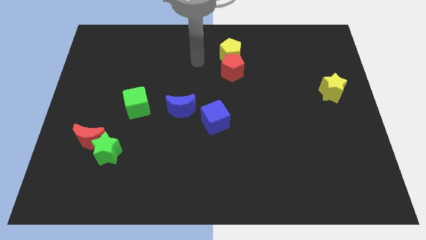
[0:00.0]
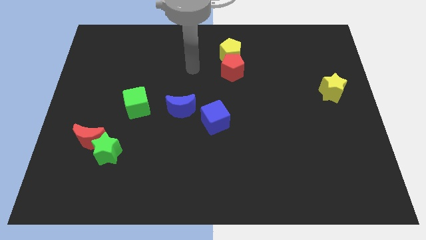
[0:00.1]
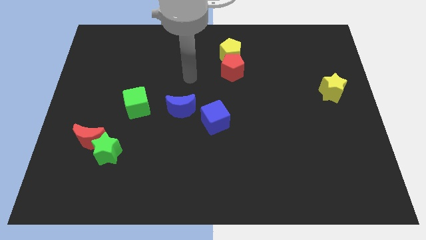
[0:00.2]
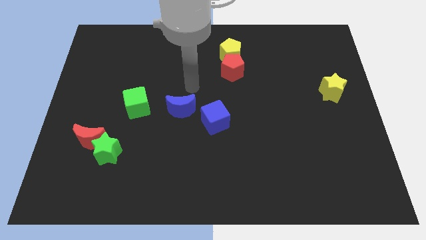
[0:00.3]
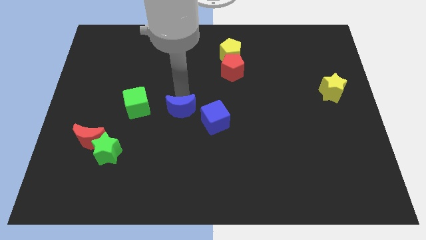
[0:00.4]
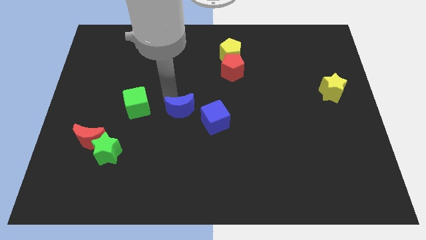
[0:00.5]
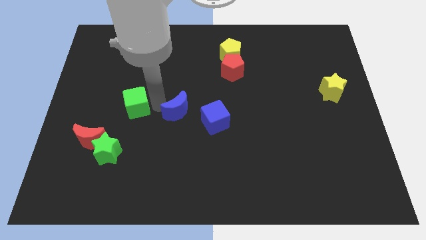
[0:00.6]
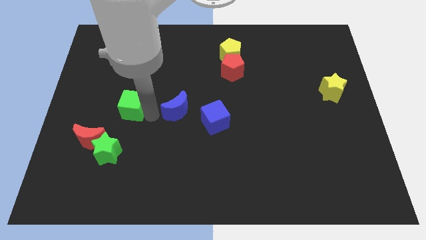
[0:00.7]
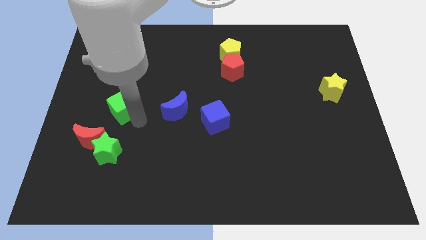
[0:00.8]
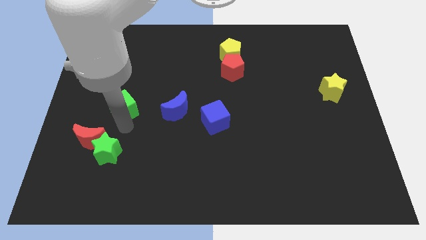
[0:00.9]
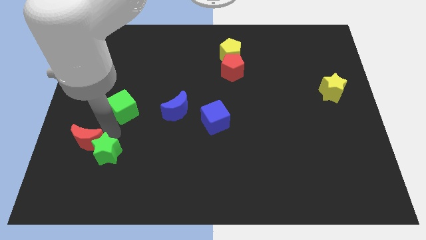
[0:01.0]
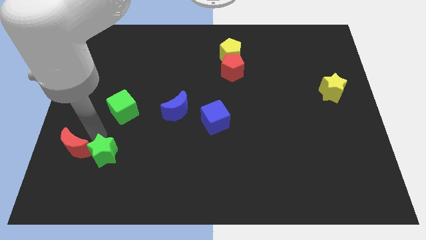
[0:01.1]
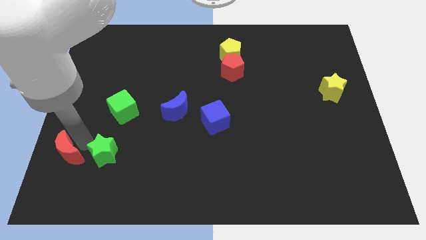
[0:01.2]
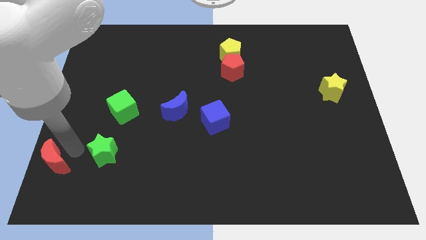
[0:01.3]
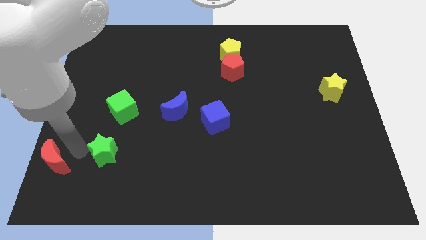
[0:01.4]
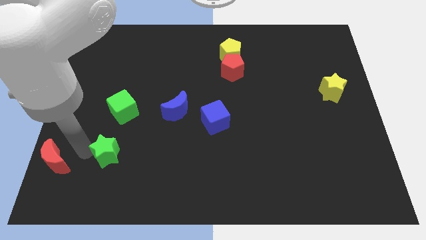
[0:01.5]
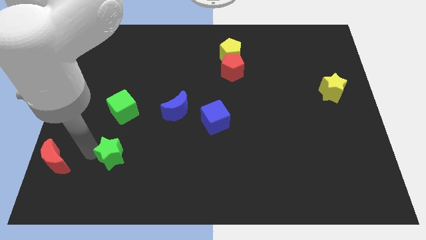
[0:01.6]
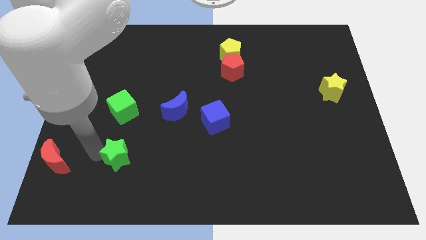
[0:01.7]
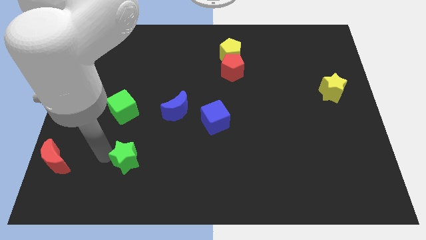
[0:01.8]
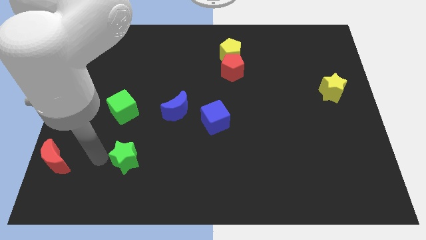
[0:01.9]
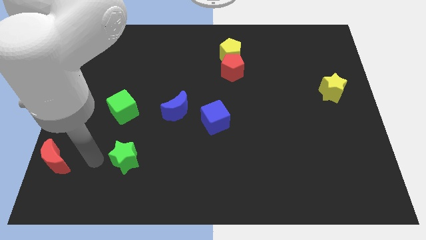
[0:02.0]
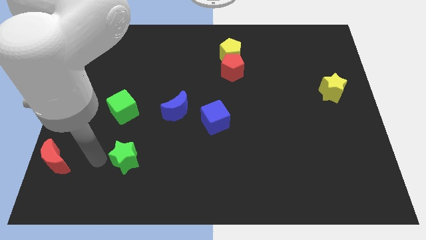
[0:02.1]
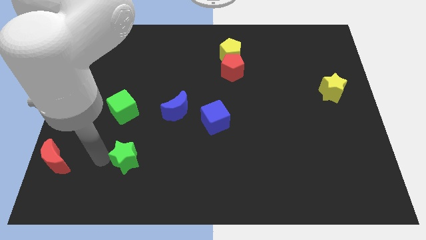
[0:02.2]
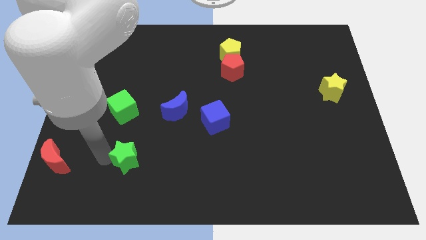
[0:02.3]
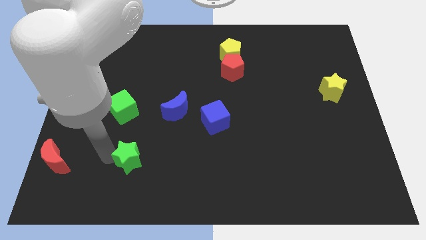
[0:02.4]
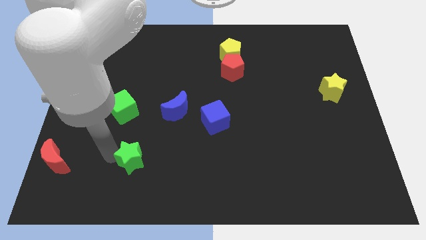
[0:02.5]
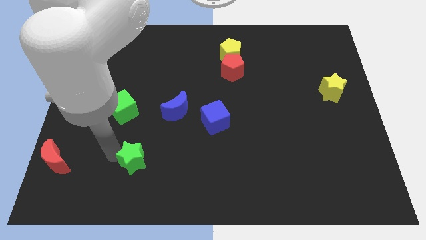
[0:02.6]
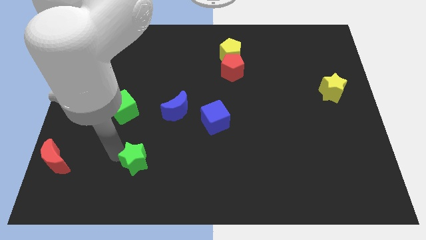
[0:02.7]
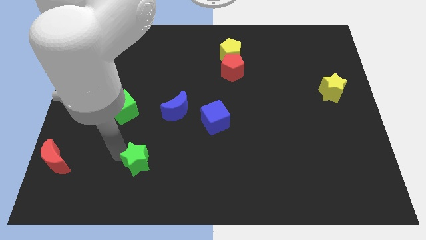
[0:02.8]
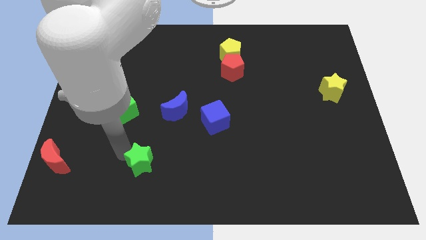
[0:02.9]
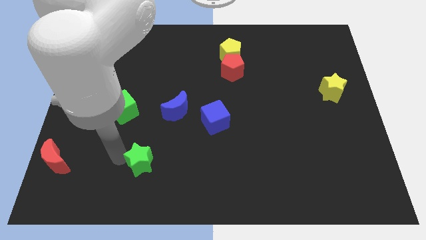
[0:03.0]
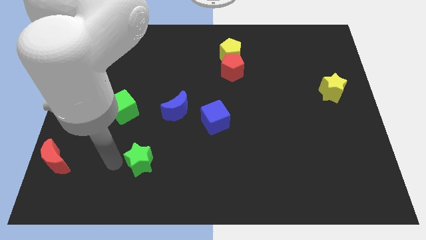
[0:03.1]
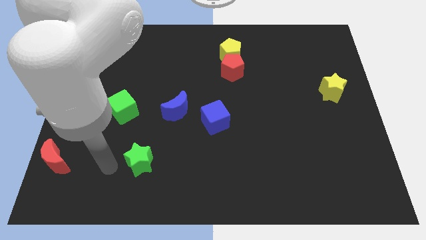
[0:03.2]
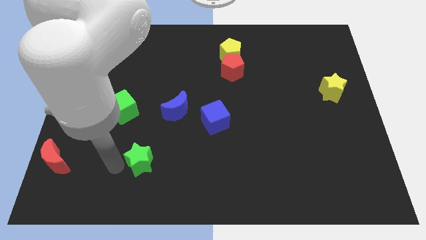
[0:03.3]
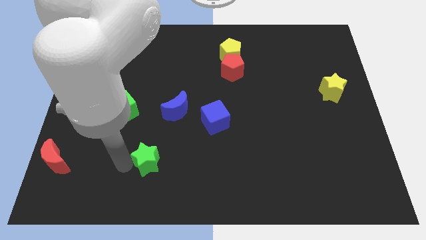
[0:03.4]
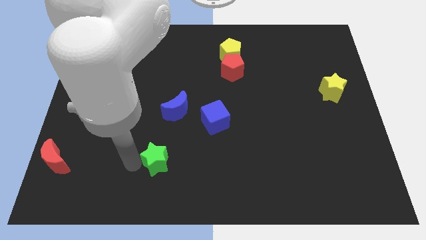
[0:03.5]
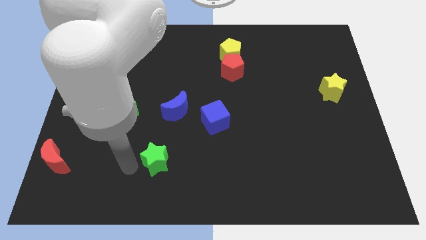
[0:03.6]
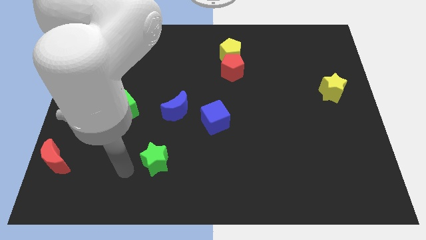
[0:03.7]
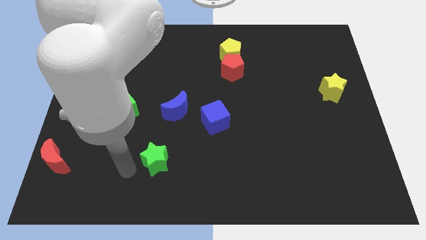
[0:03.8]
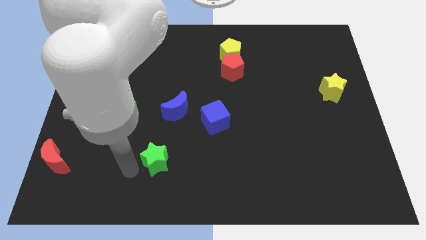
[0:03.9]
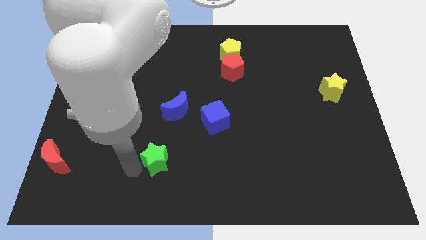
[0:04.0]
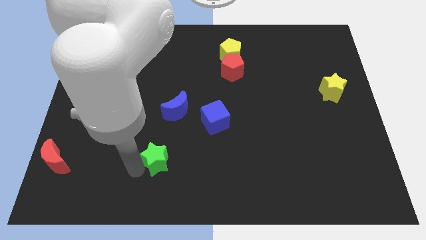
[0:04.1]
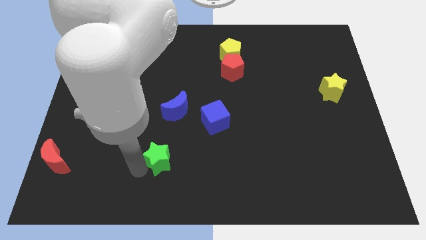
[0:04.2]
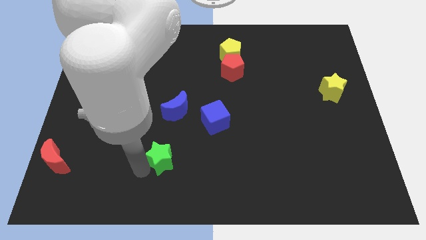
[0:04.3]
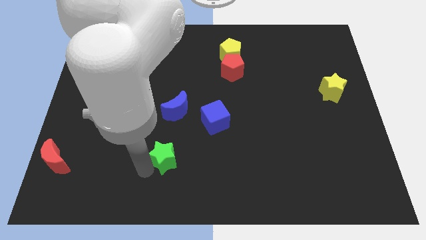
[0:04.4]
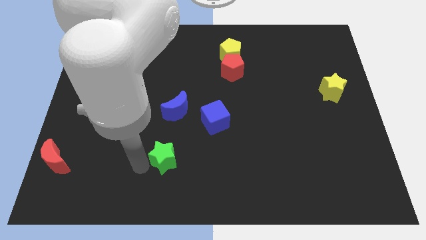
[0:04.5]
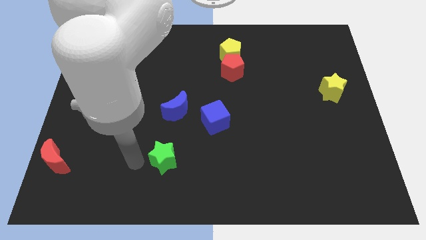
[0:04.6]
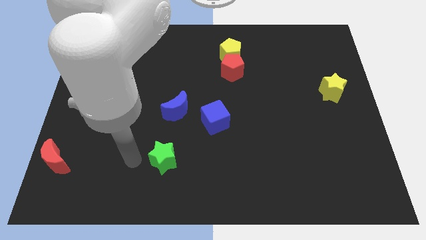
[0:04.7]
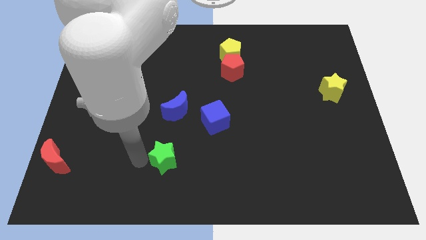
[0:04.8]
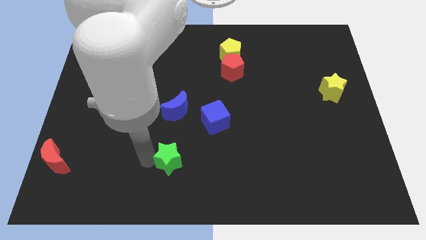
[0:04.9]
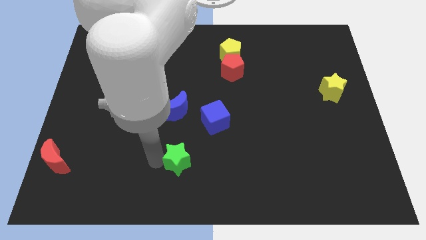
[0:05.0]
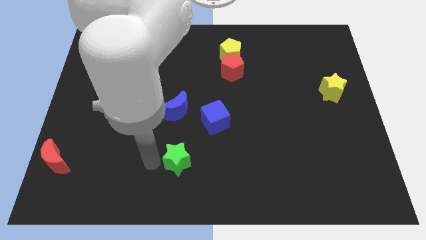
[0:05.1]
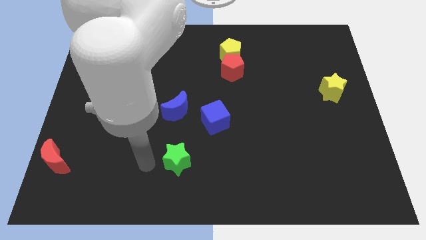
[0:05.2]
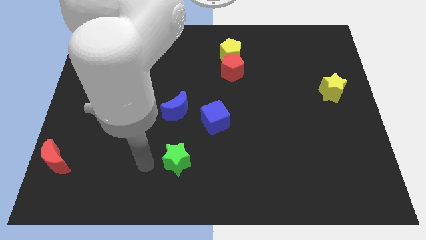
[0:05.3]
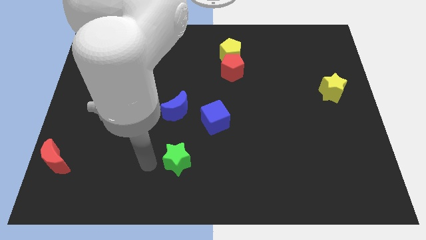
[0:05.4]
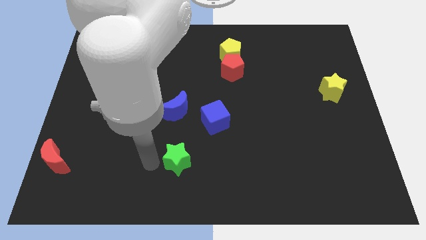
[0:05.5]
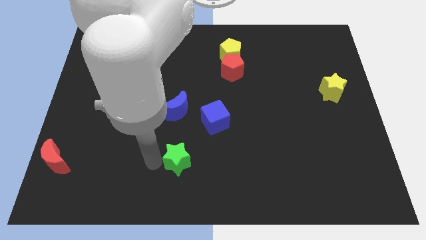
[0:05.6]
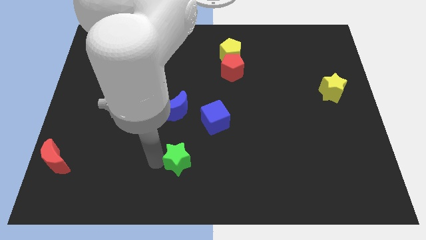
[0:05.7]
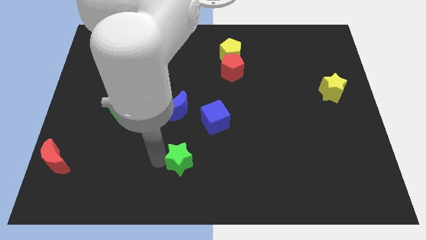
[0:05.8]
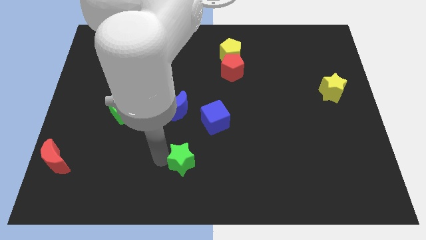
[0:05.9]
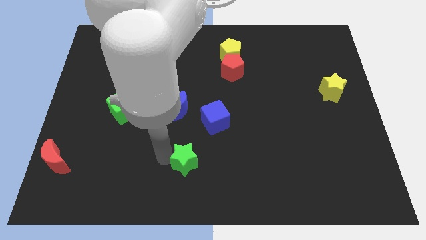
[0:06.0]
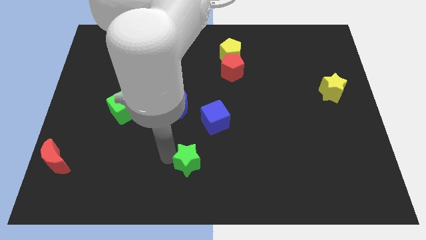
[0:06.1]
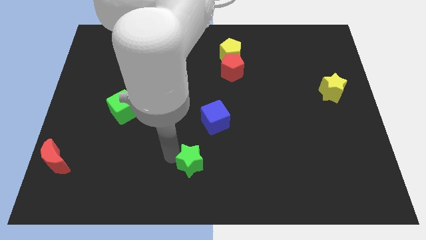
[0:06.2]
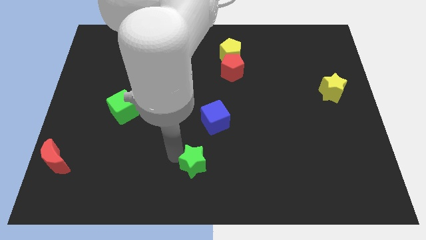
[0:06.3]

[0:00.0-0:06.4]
push the green star below the blue cube

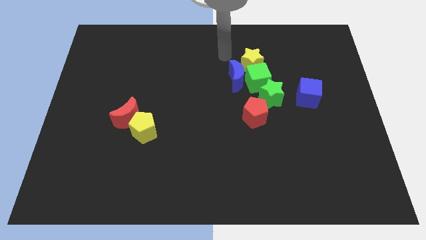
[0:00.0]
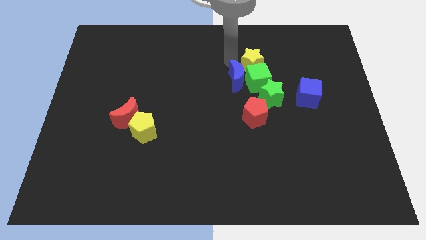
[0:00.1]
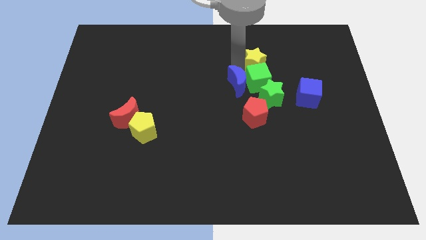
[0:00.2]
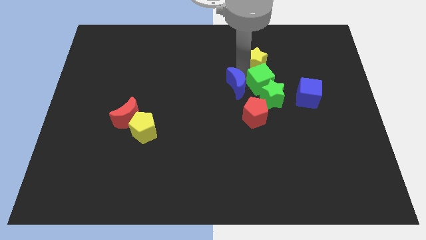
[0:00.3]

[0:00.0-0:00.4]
slide the green star to the right of the red pentagon
